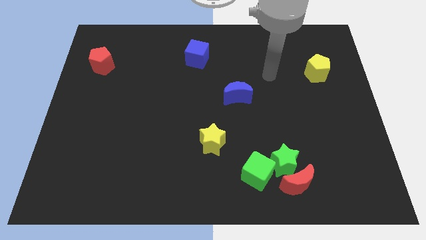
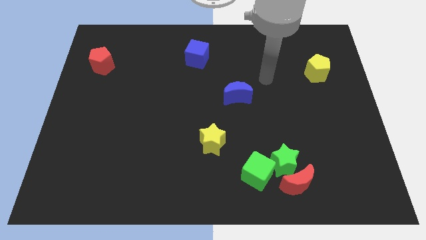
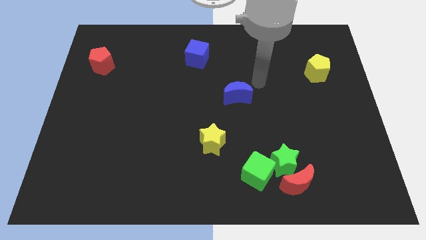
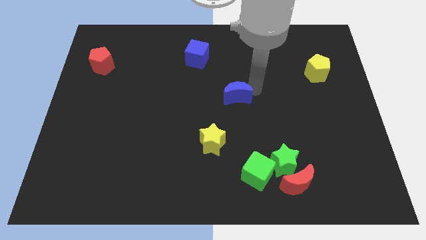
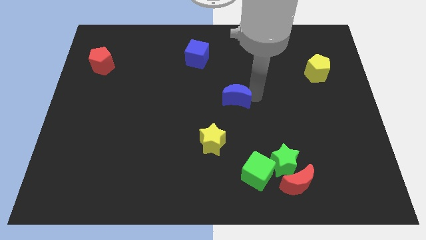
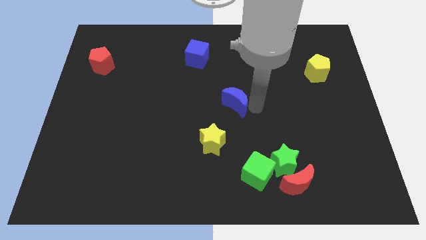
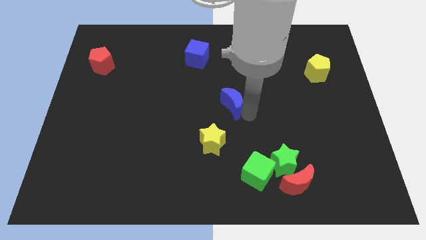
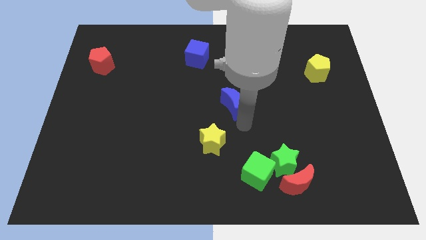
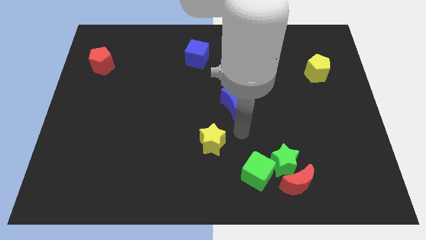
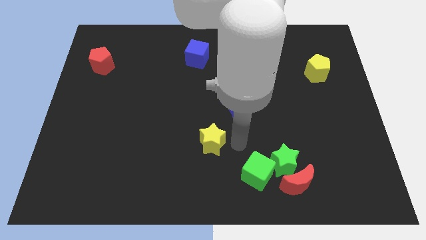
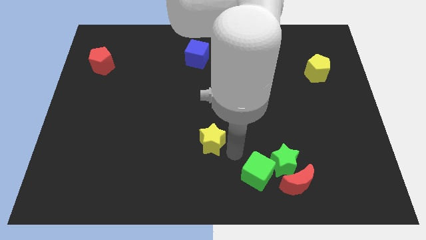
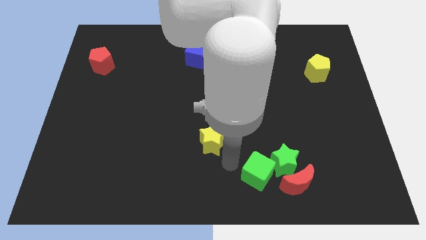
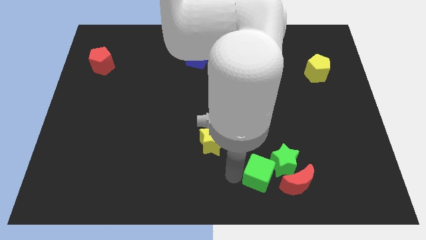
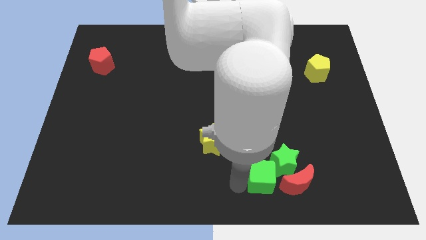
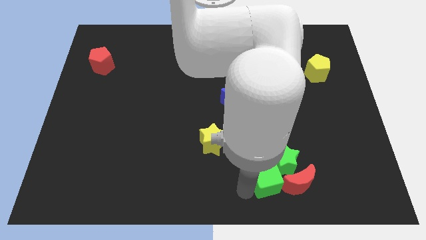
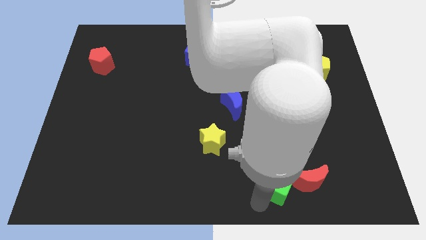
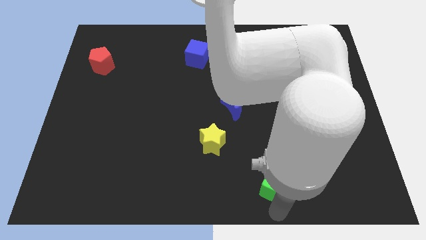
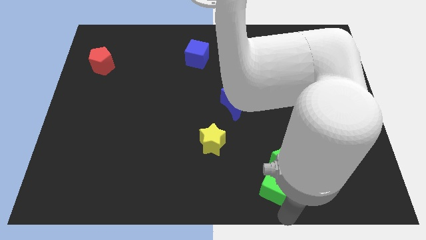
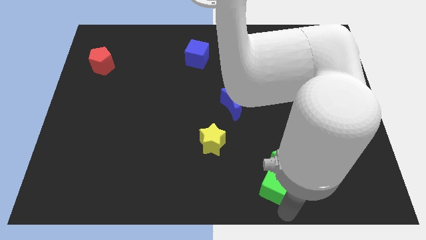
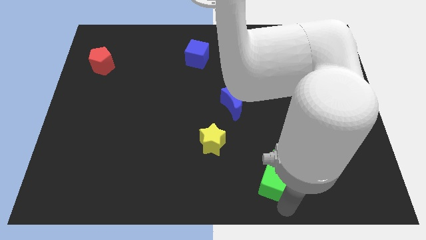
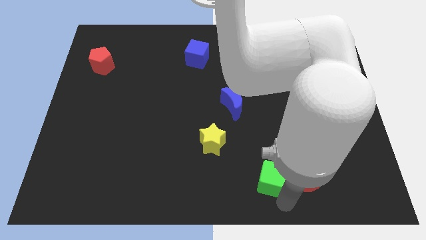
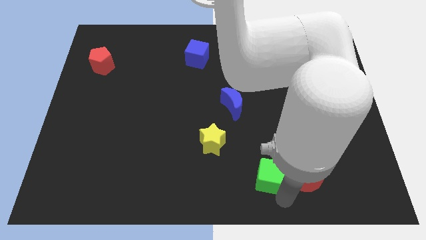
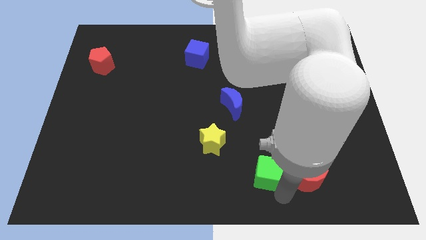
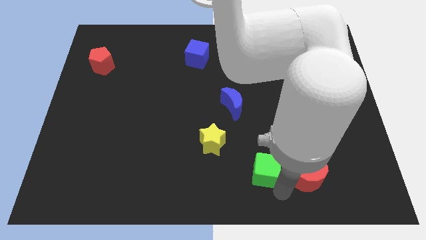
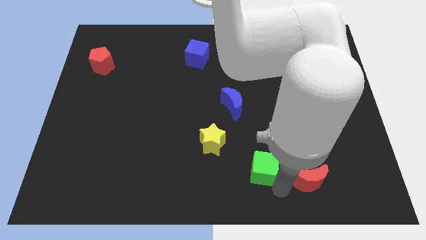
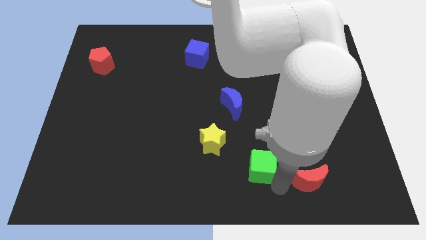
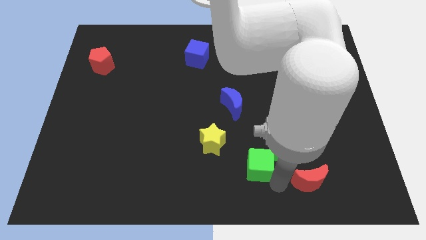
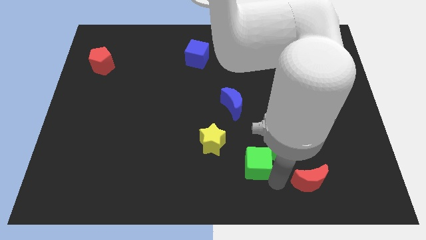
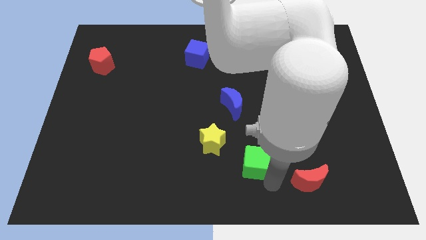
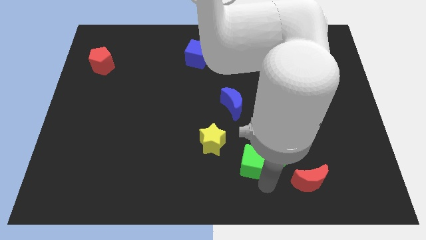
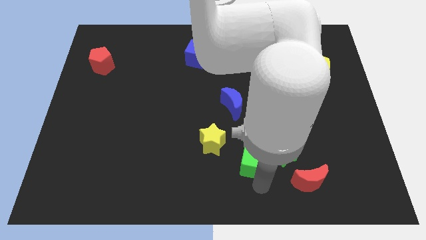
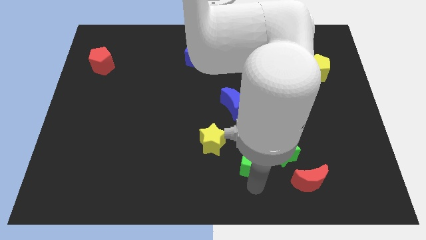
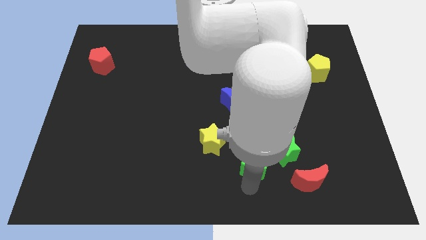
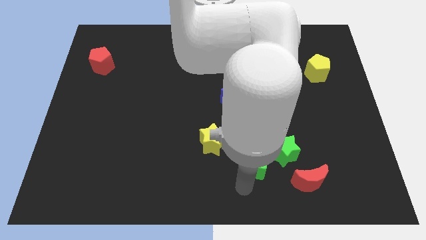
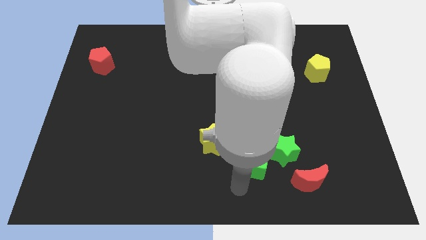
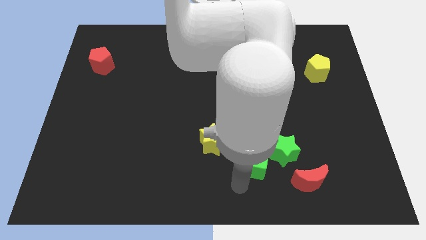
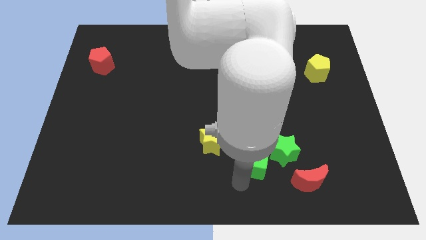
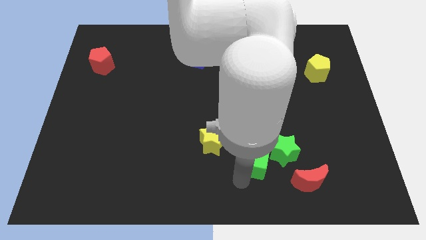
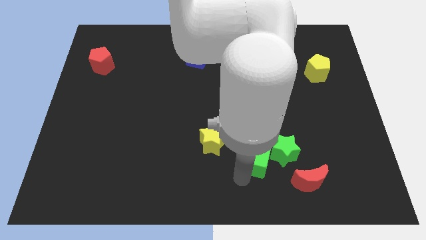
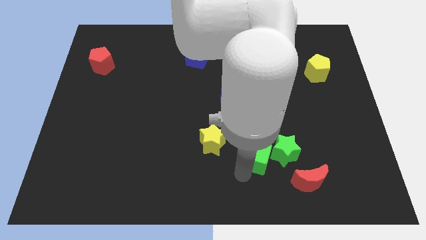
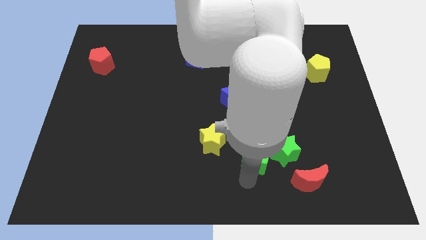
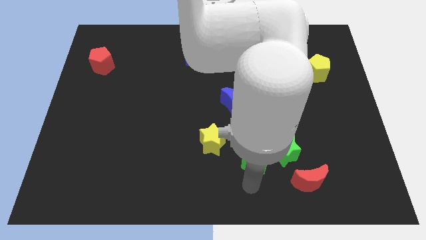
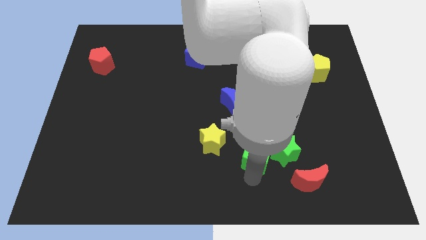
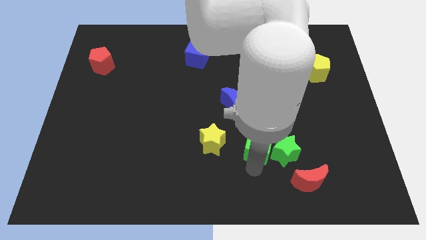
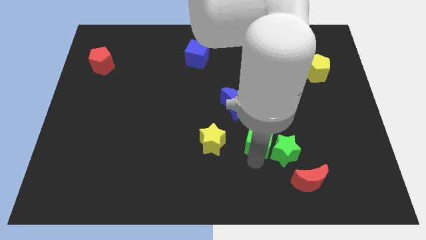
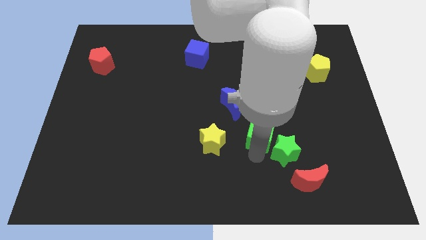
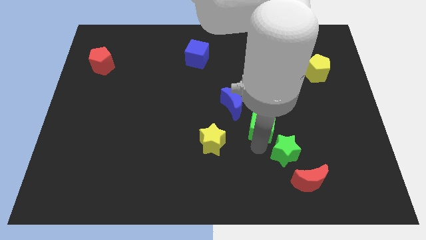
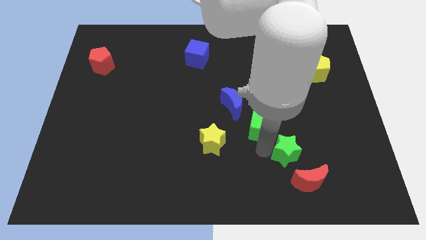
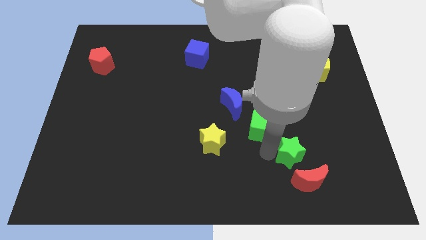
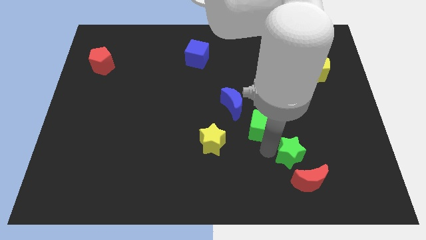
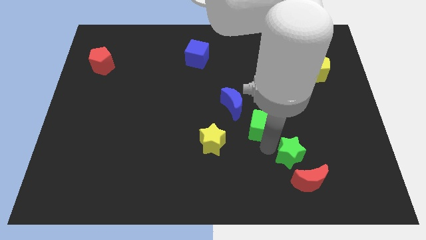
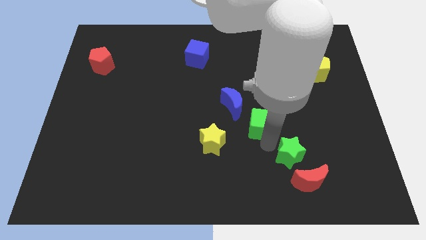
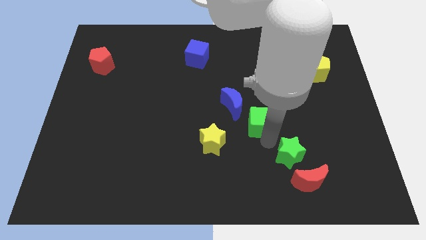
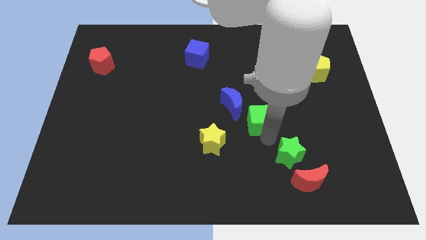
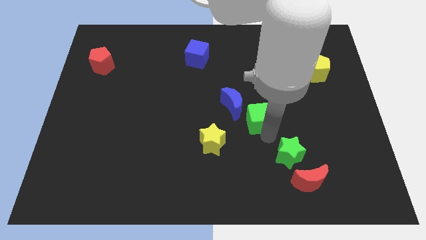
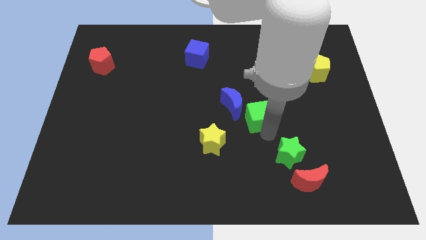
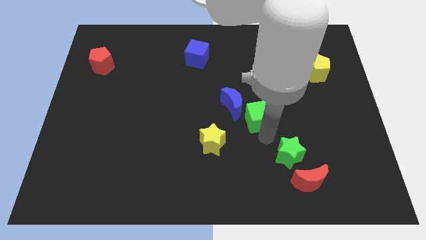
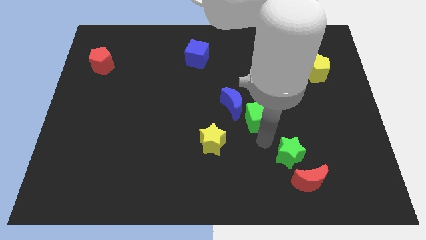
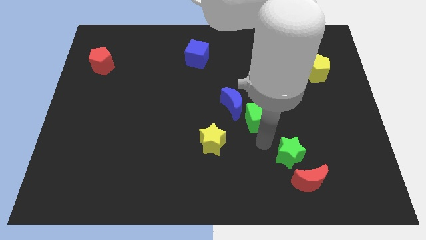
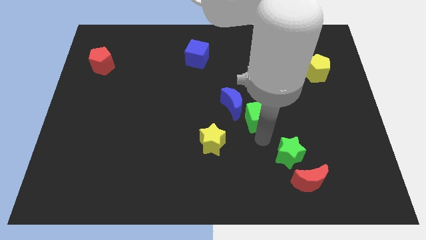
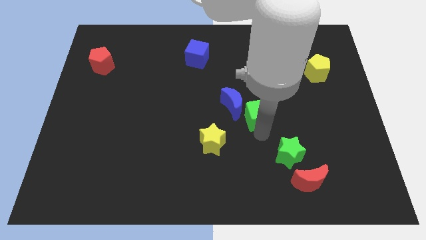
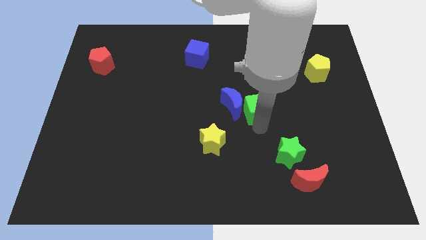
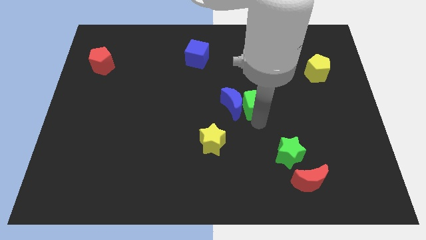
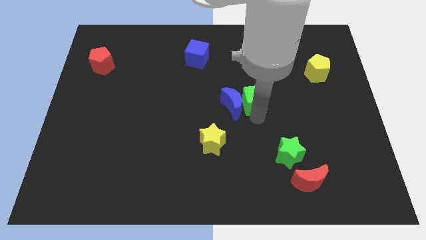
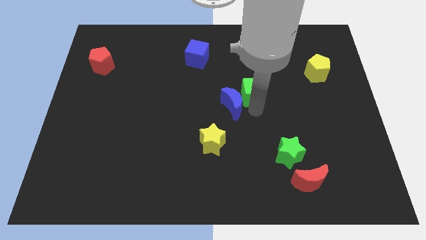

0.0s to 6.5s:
push the green cube up

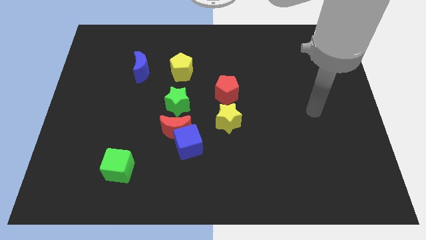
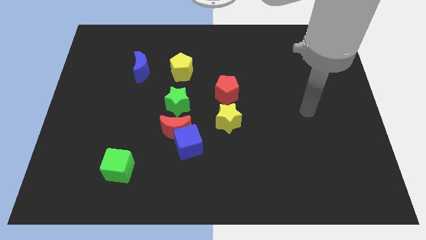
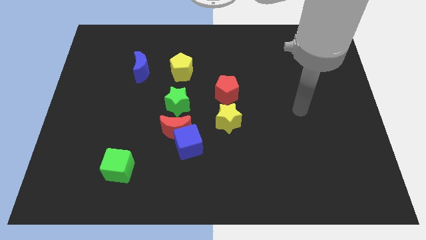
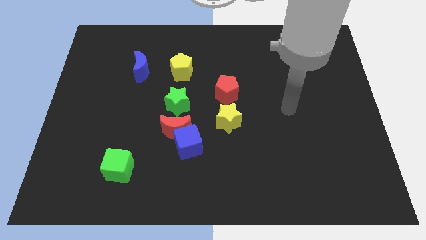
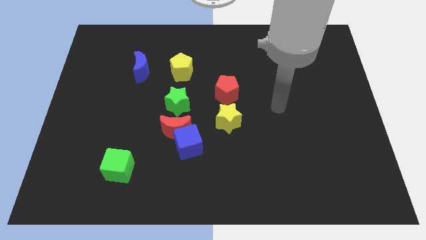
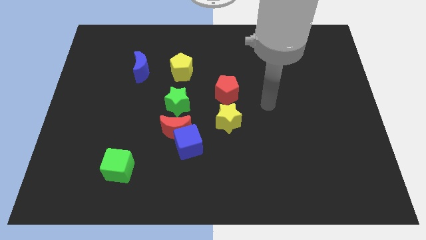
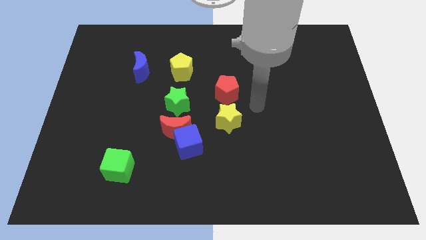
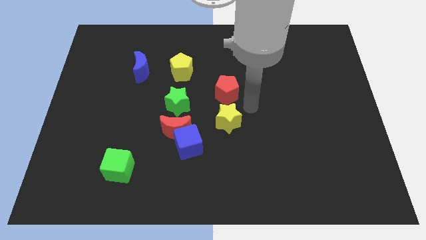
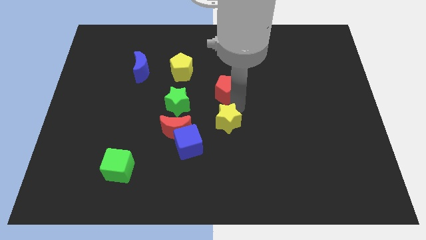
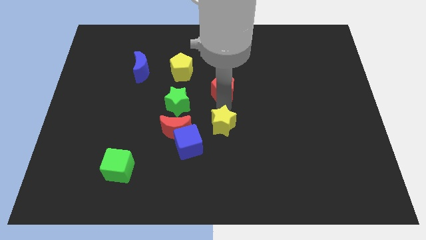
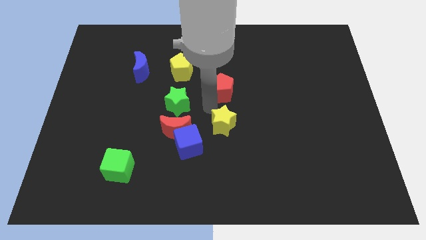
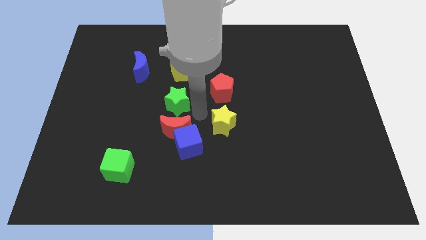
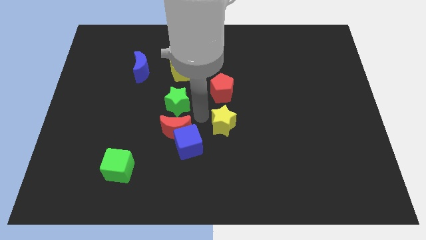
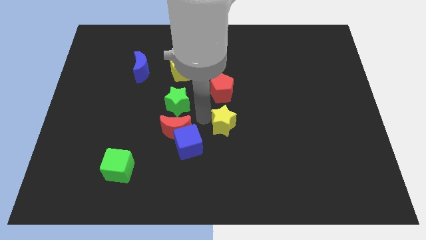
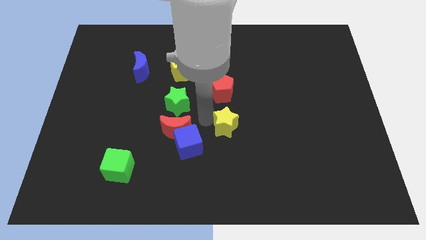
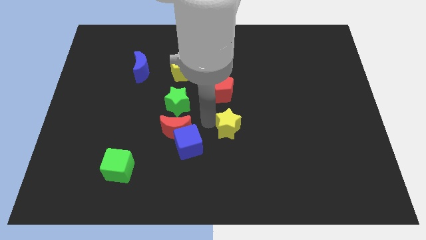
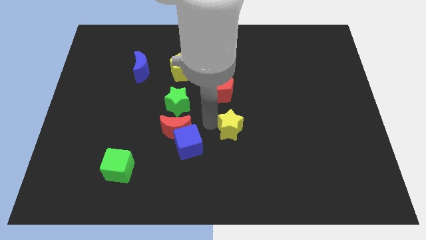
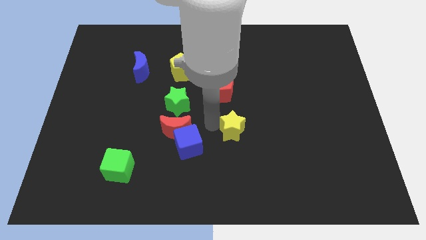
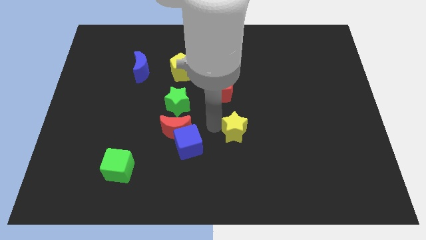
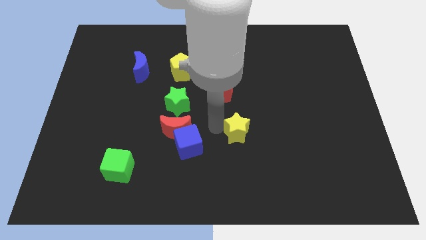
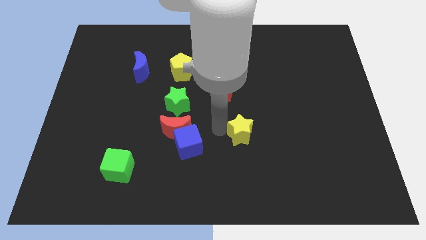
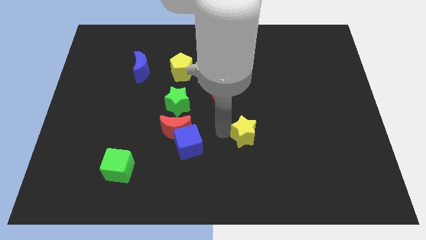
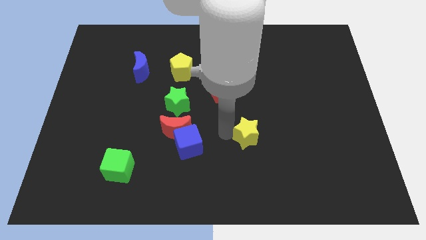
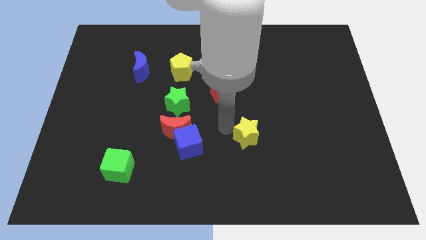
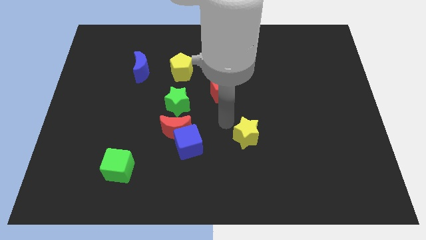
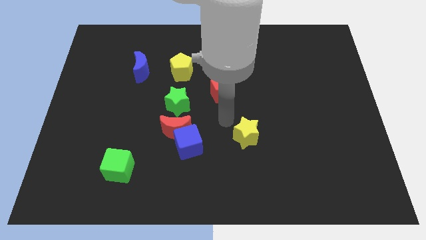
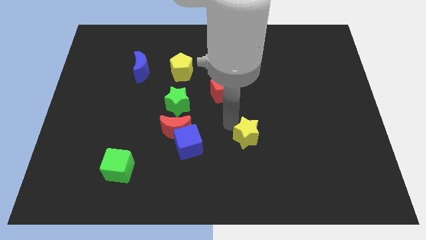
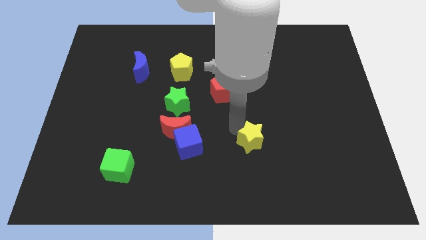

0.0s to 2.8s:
slide the yellow star slightly downwards and right
